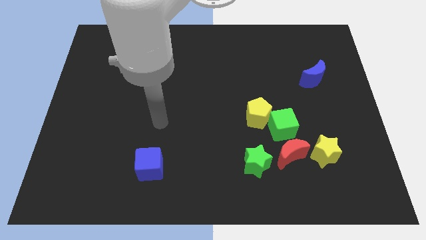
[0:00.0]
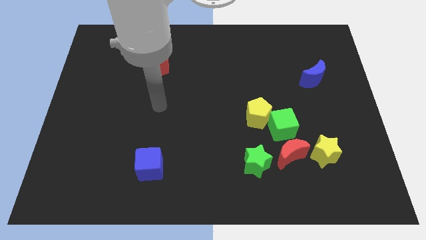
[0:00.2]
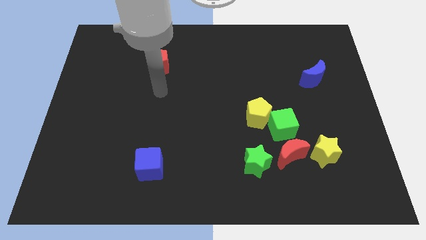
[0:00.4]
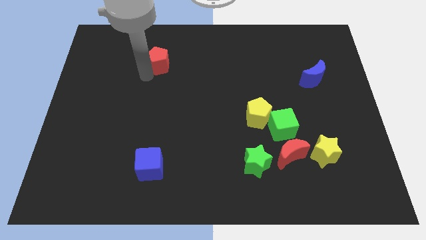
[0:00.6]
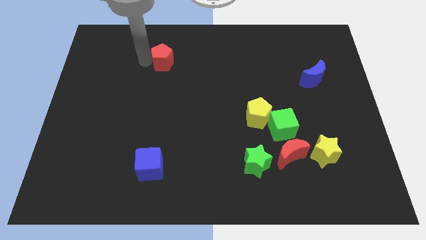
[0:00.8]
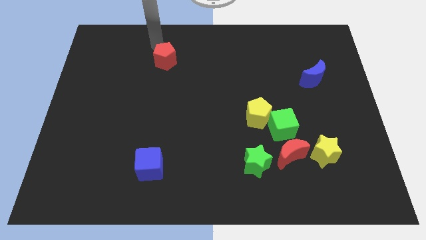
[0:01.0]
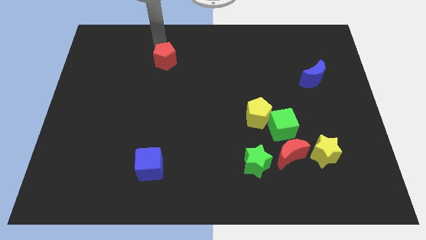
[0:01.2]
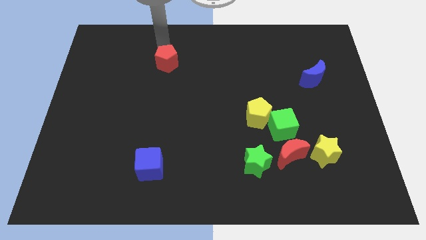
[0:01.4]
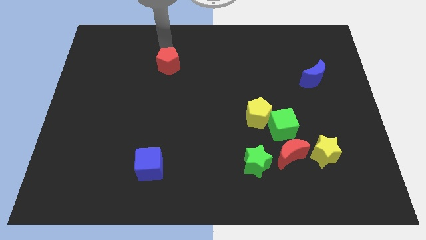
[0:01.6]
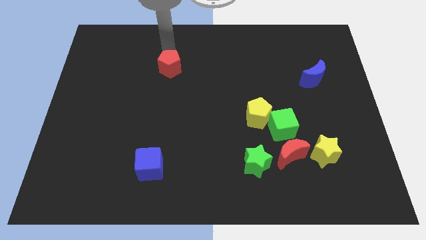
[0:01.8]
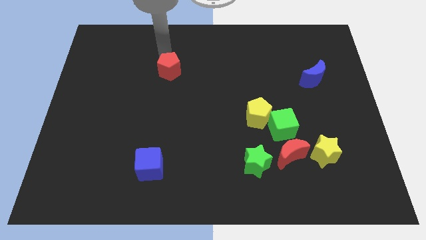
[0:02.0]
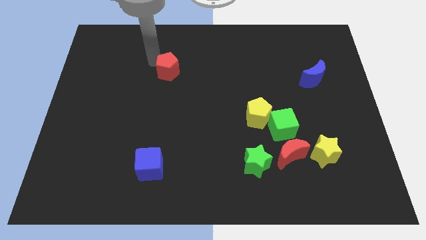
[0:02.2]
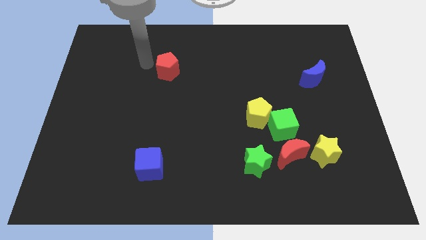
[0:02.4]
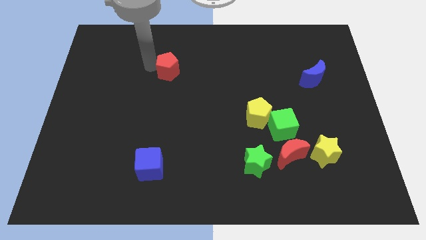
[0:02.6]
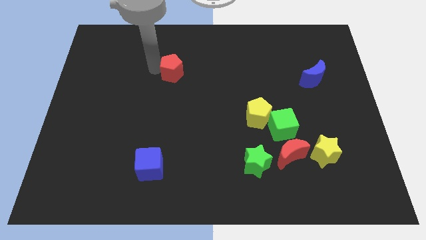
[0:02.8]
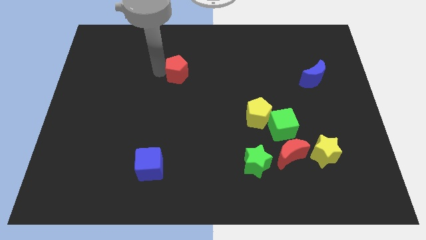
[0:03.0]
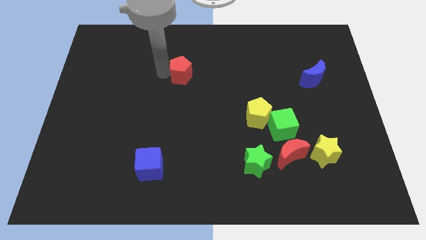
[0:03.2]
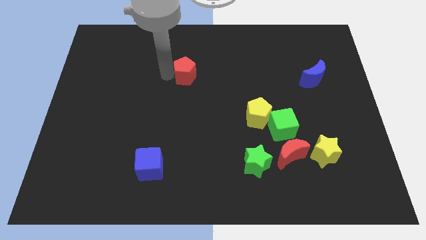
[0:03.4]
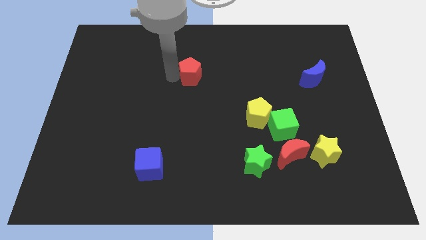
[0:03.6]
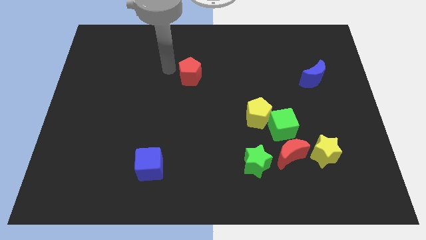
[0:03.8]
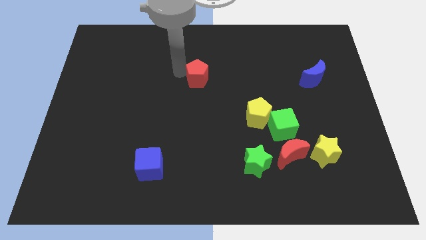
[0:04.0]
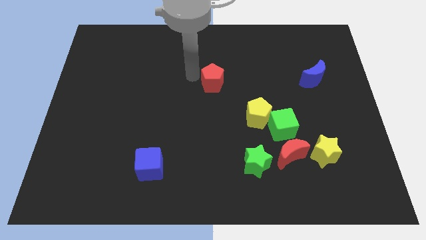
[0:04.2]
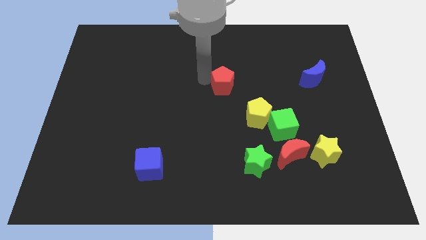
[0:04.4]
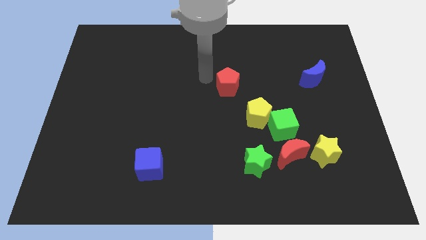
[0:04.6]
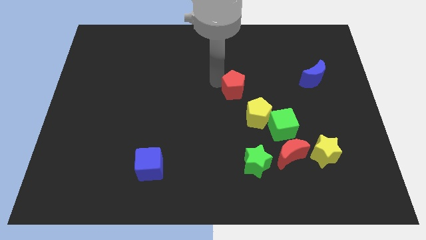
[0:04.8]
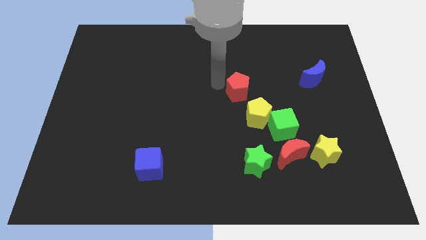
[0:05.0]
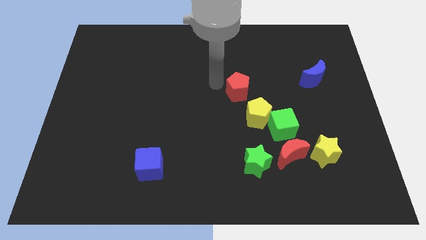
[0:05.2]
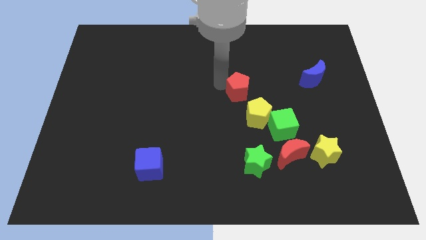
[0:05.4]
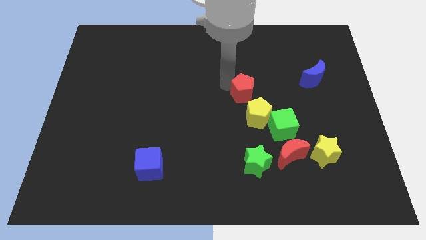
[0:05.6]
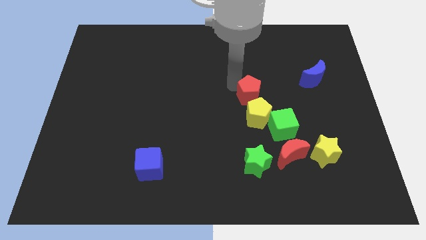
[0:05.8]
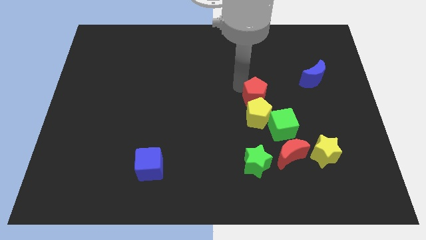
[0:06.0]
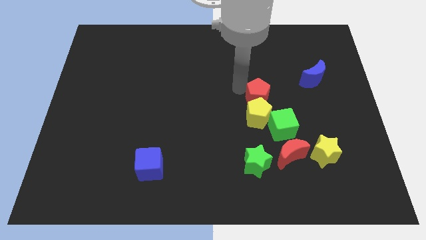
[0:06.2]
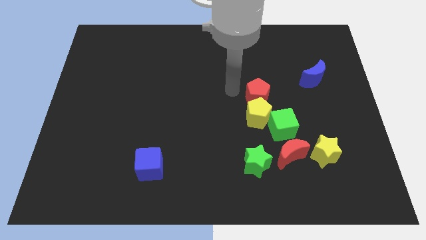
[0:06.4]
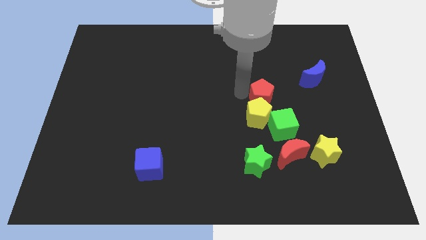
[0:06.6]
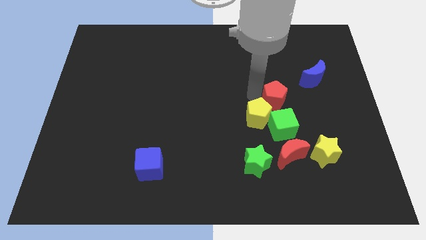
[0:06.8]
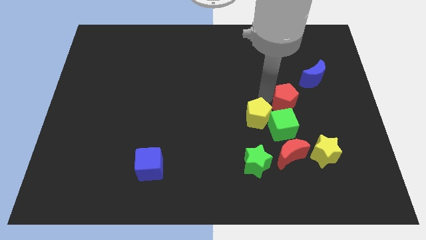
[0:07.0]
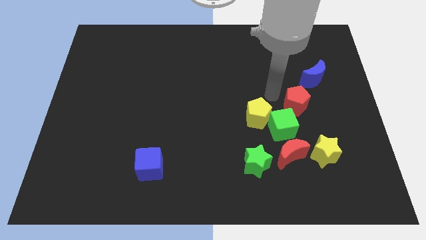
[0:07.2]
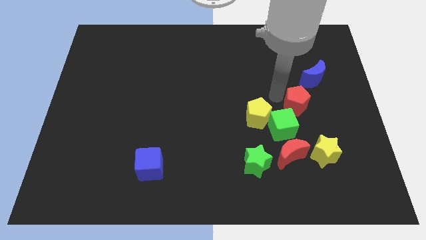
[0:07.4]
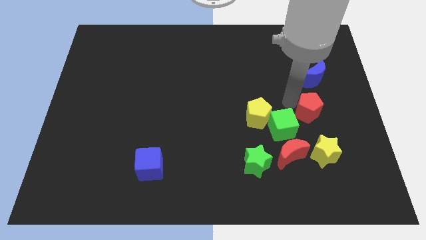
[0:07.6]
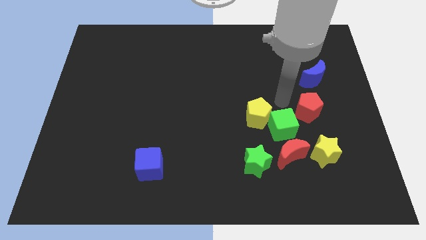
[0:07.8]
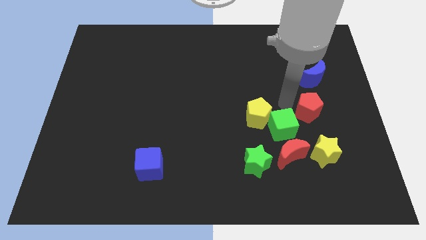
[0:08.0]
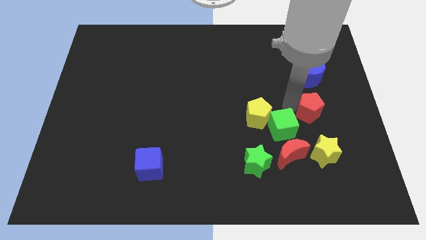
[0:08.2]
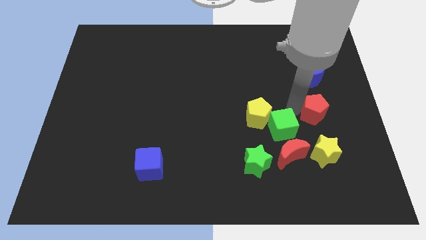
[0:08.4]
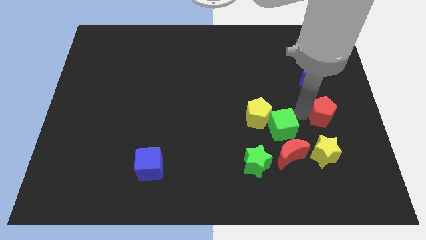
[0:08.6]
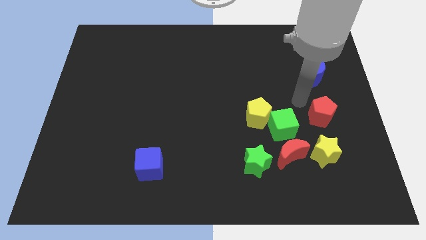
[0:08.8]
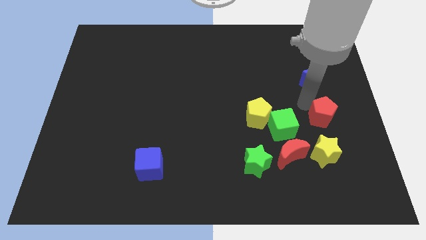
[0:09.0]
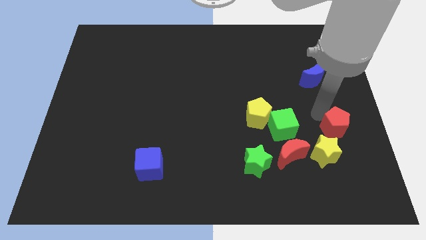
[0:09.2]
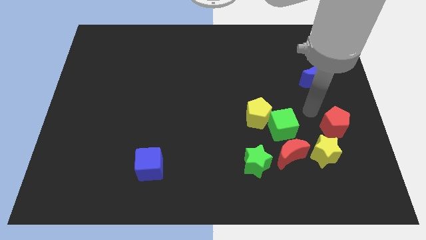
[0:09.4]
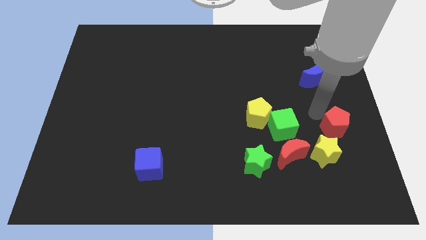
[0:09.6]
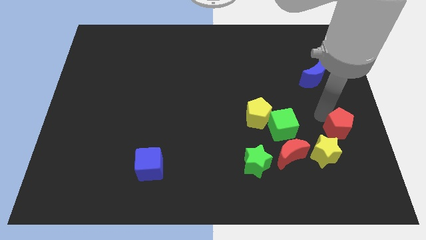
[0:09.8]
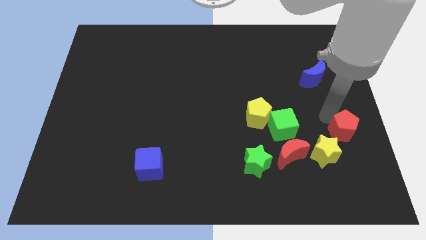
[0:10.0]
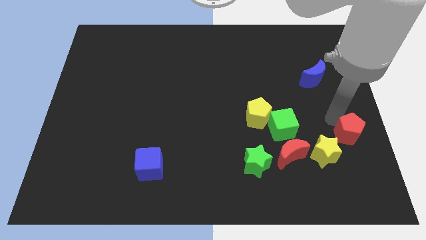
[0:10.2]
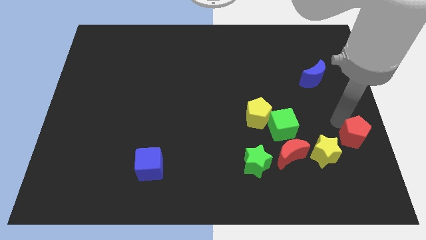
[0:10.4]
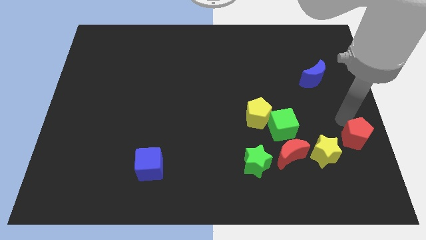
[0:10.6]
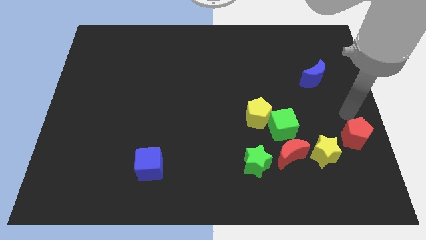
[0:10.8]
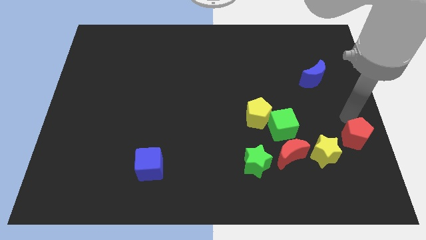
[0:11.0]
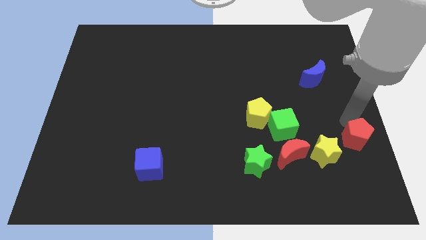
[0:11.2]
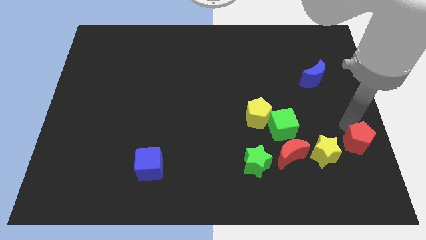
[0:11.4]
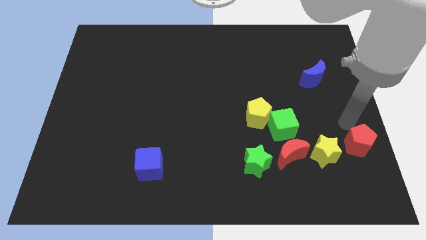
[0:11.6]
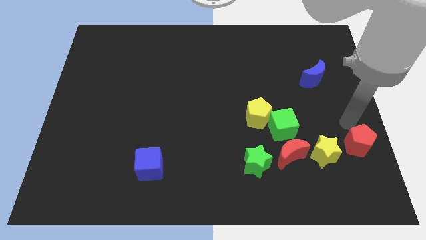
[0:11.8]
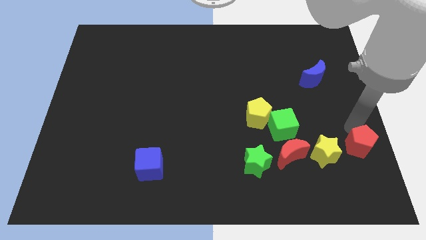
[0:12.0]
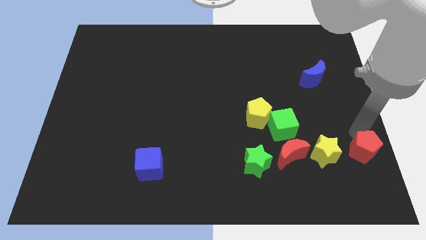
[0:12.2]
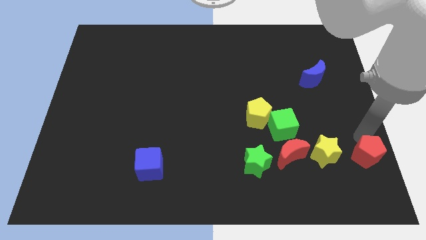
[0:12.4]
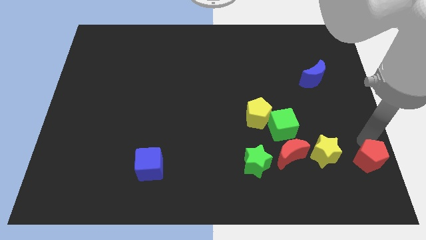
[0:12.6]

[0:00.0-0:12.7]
push the red pentagon to the bottom right
